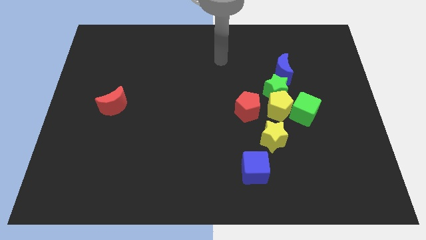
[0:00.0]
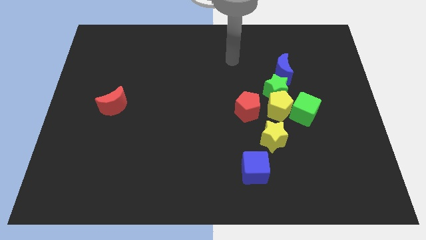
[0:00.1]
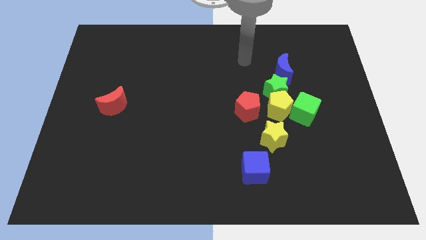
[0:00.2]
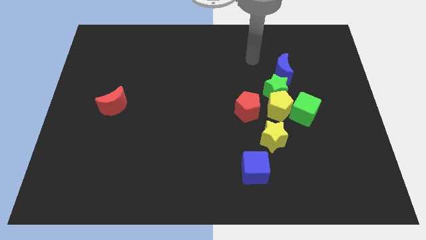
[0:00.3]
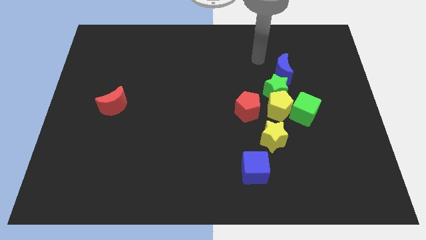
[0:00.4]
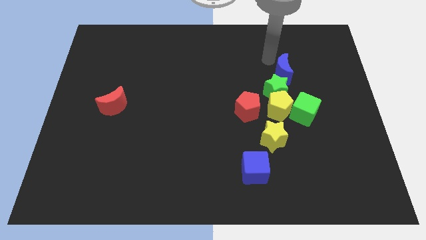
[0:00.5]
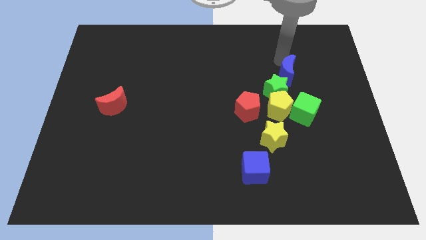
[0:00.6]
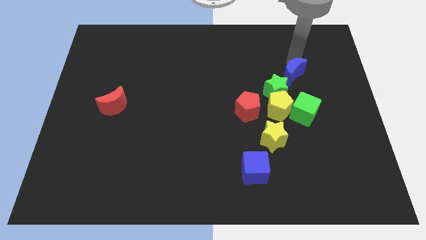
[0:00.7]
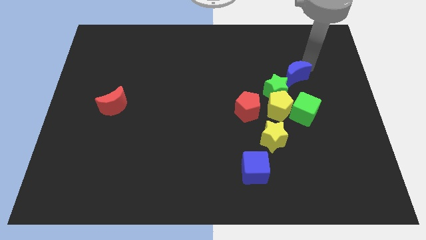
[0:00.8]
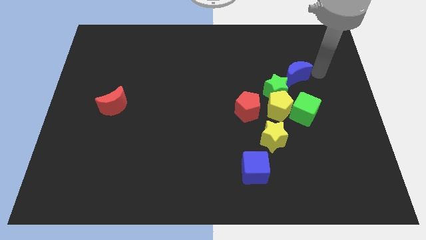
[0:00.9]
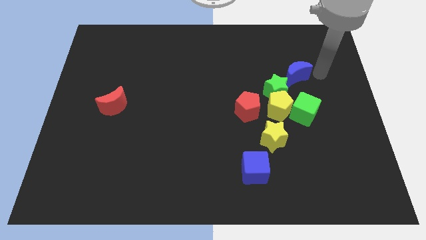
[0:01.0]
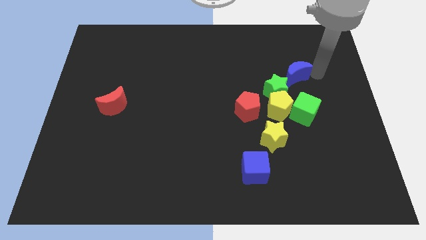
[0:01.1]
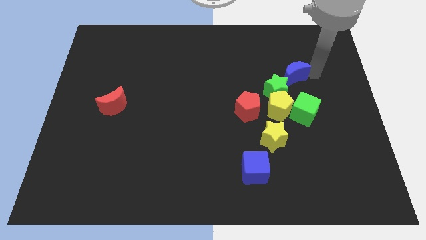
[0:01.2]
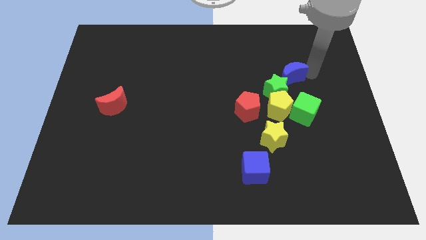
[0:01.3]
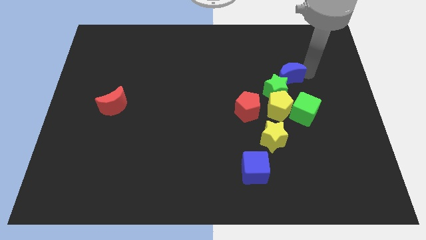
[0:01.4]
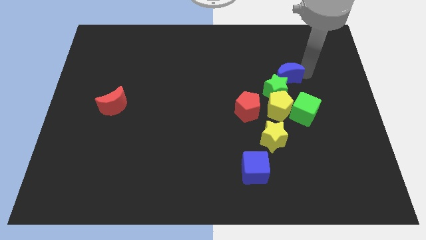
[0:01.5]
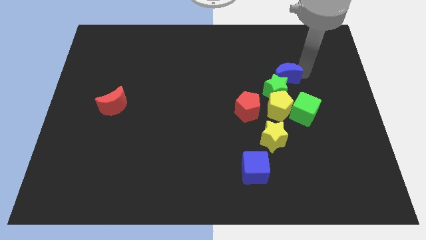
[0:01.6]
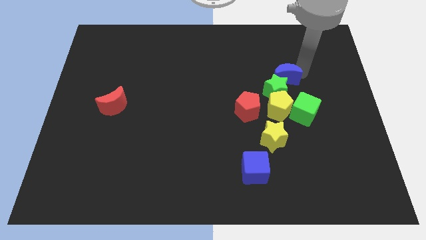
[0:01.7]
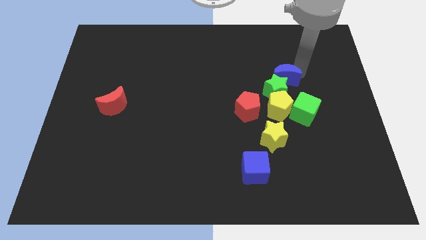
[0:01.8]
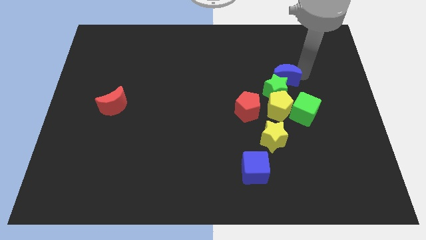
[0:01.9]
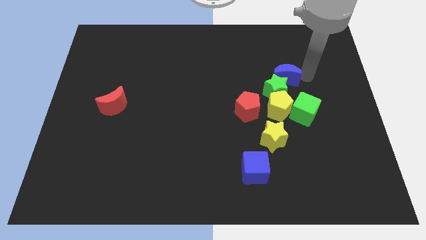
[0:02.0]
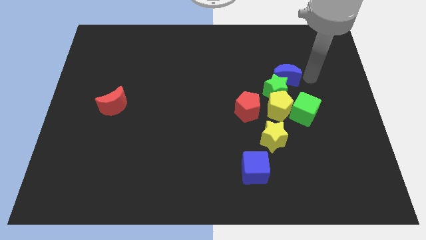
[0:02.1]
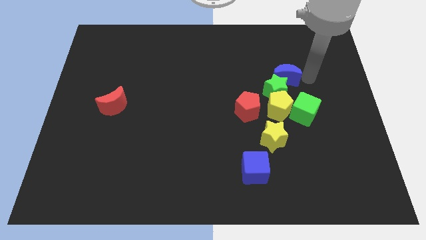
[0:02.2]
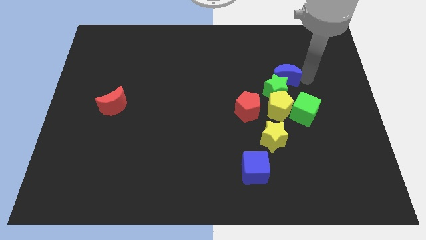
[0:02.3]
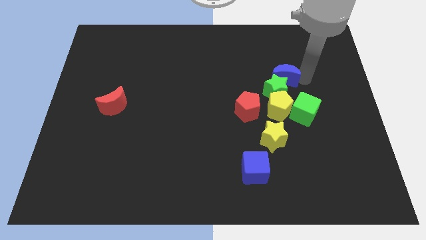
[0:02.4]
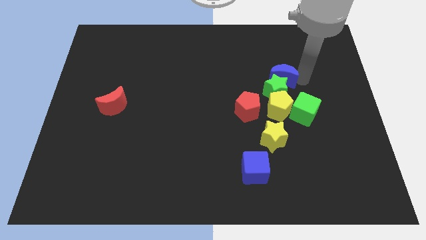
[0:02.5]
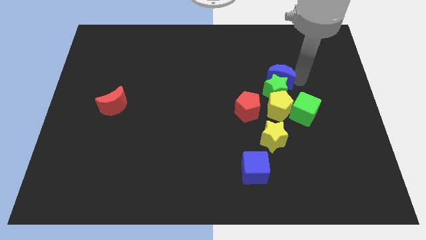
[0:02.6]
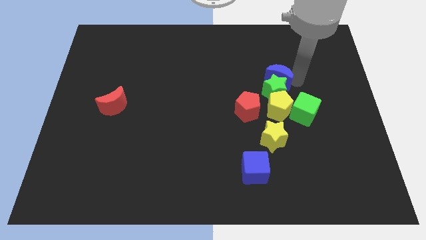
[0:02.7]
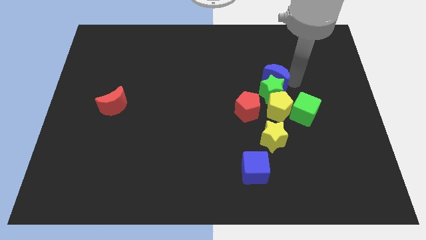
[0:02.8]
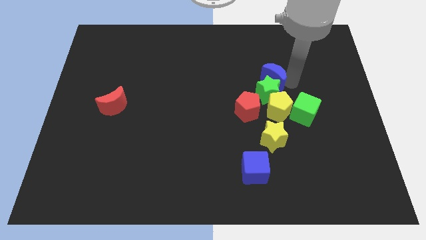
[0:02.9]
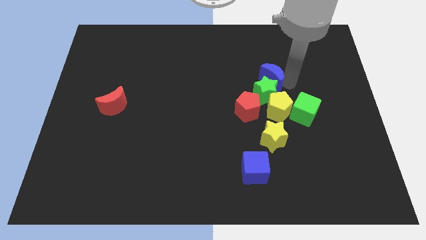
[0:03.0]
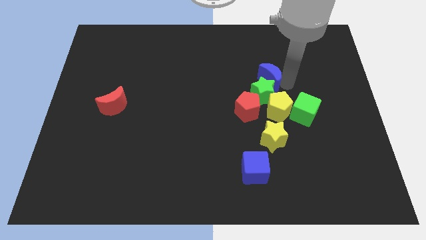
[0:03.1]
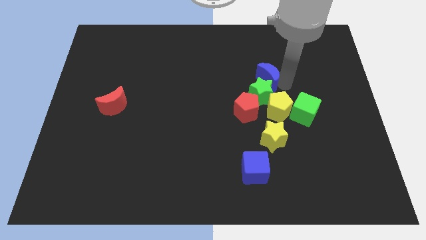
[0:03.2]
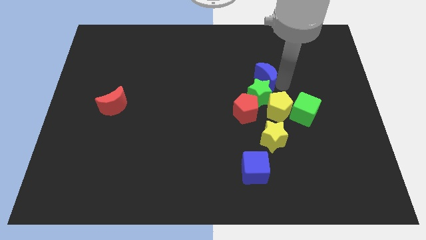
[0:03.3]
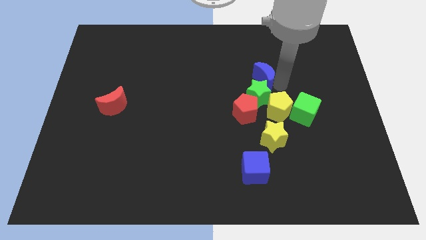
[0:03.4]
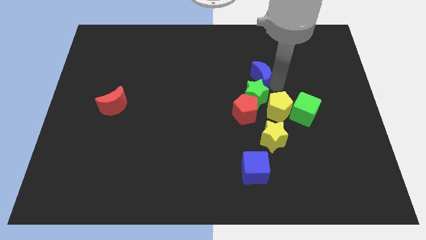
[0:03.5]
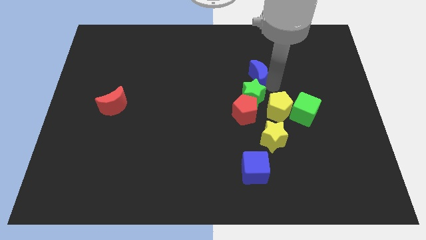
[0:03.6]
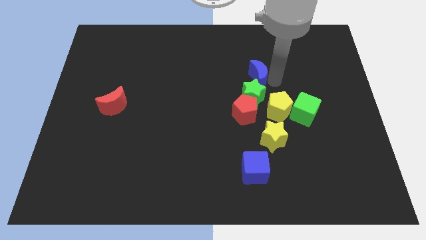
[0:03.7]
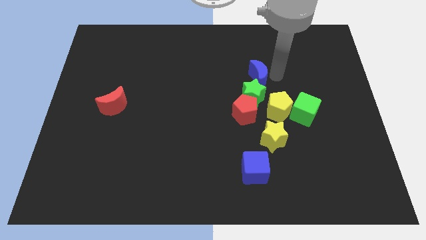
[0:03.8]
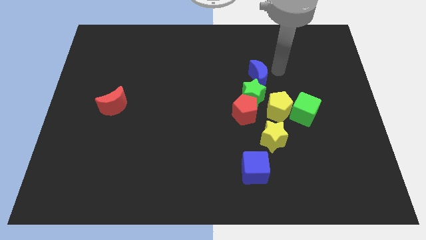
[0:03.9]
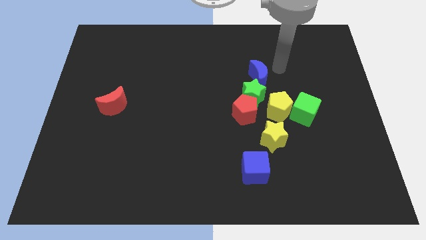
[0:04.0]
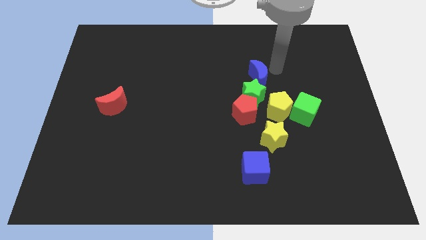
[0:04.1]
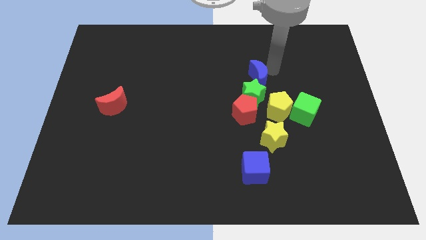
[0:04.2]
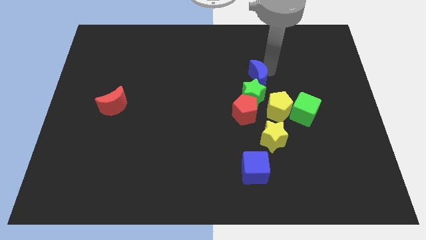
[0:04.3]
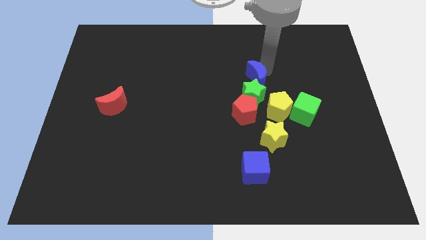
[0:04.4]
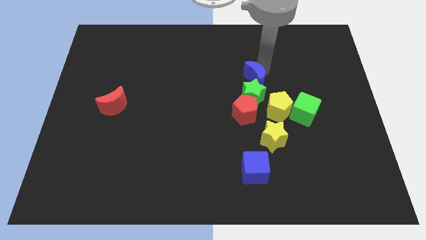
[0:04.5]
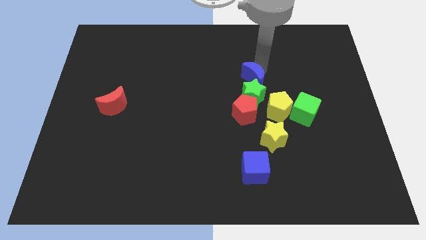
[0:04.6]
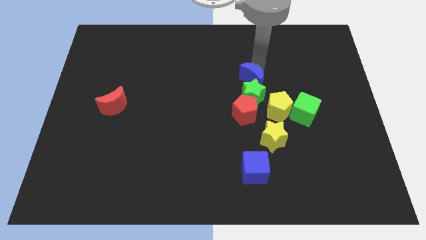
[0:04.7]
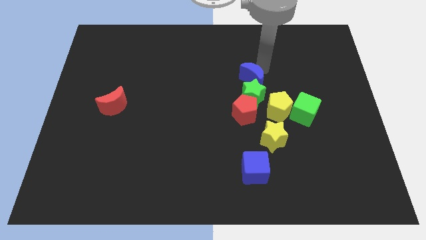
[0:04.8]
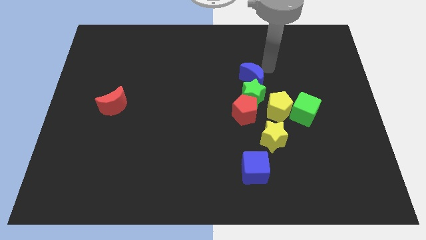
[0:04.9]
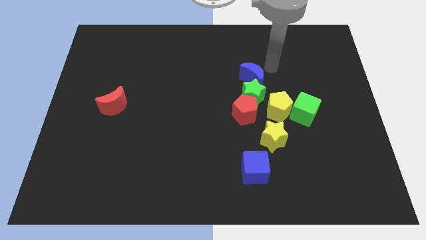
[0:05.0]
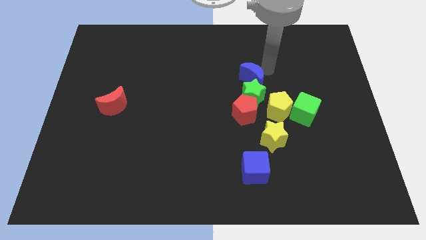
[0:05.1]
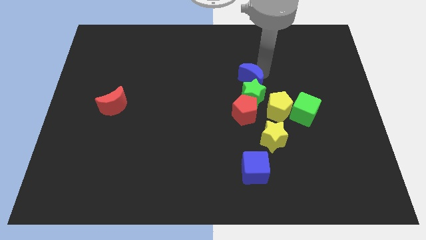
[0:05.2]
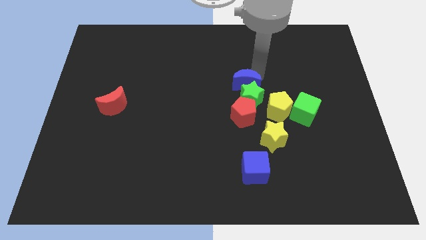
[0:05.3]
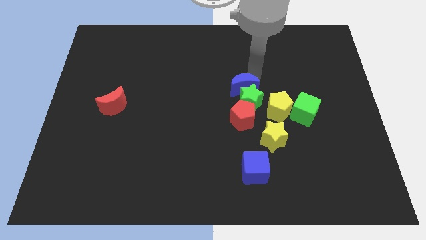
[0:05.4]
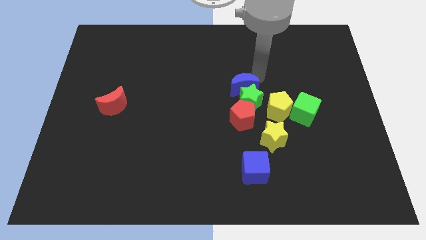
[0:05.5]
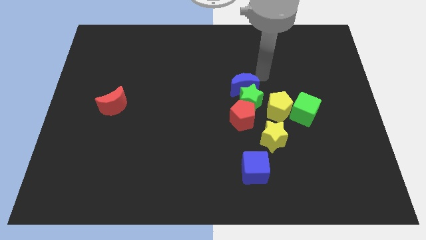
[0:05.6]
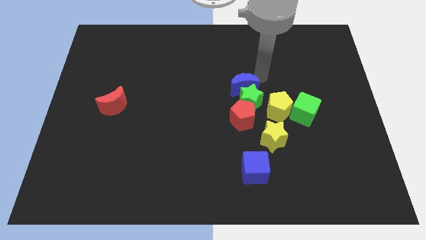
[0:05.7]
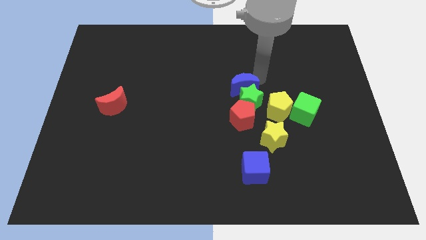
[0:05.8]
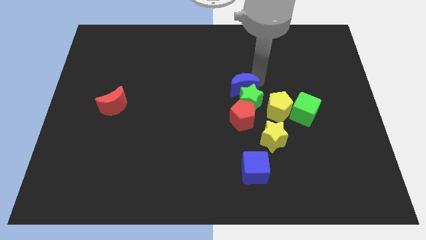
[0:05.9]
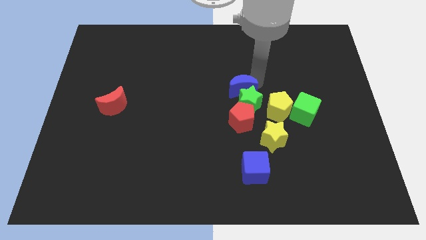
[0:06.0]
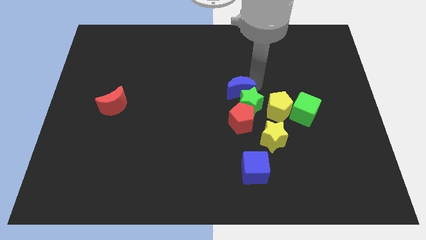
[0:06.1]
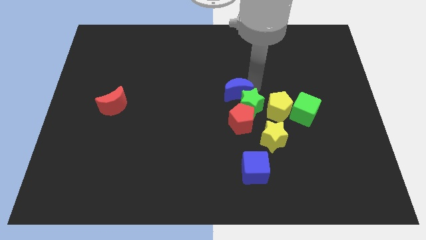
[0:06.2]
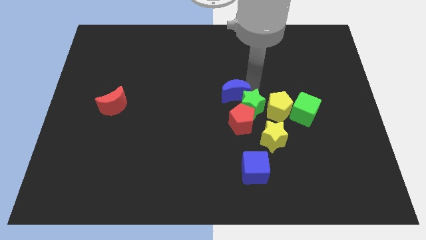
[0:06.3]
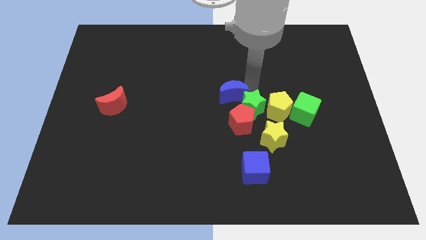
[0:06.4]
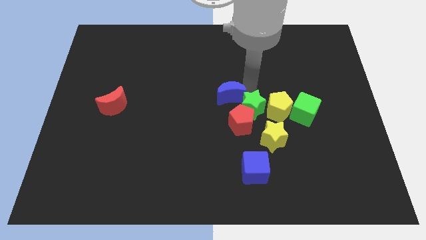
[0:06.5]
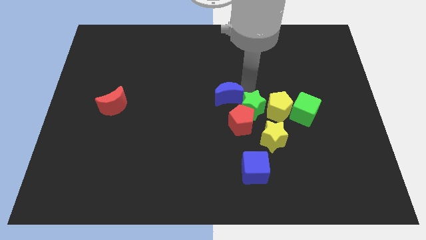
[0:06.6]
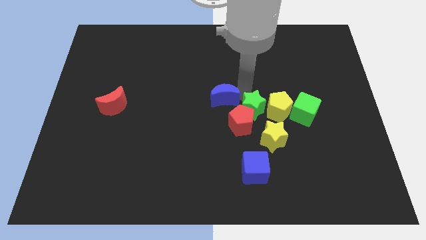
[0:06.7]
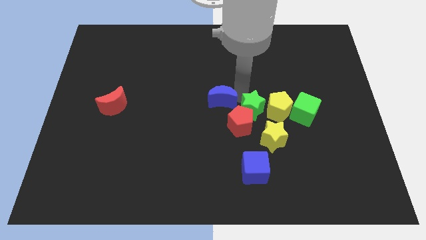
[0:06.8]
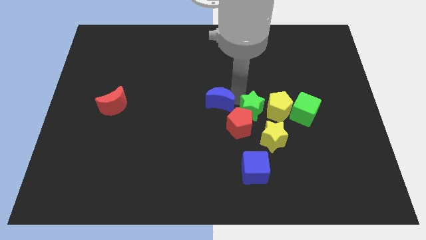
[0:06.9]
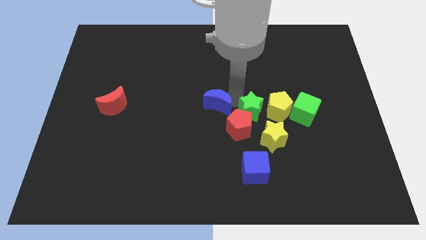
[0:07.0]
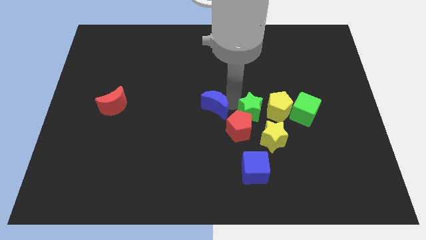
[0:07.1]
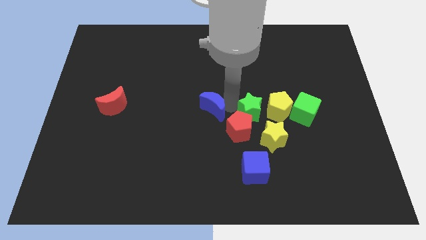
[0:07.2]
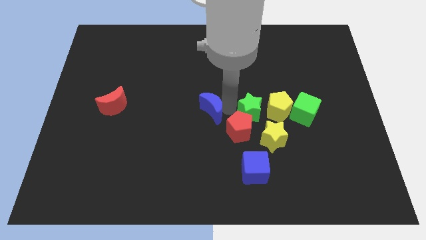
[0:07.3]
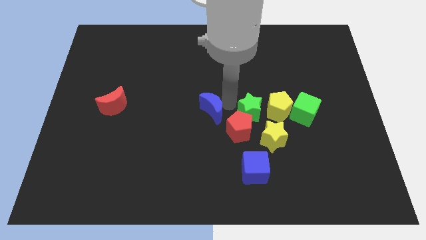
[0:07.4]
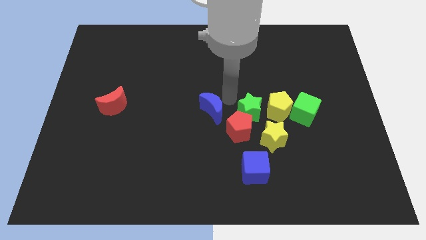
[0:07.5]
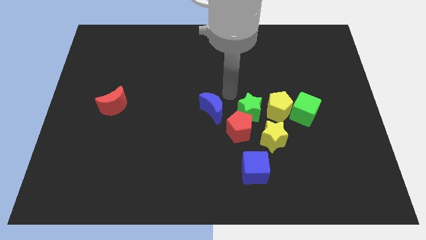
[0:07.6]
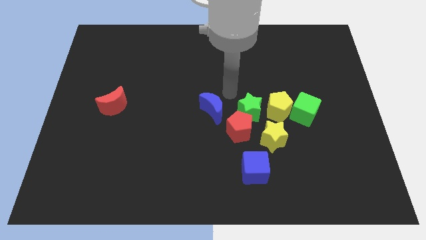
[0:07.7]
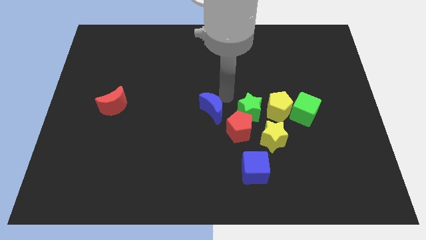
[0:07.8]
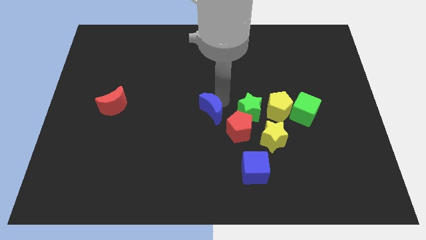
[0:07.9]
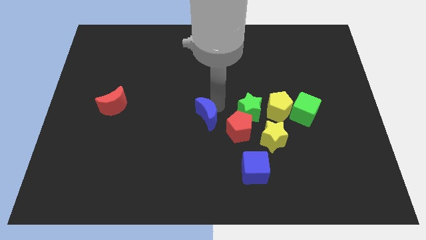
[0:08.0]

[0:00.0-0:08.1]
slide the blue moon to the left of the red pentagon
